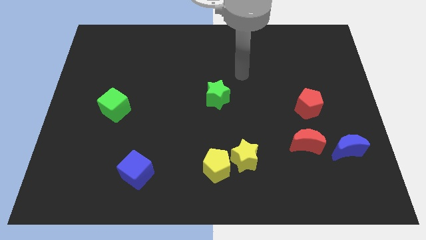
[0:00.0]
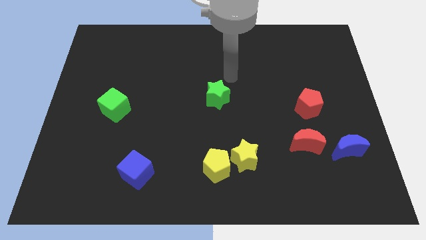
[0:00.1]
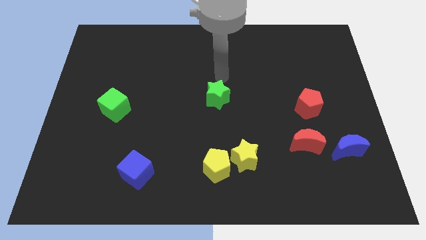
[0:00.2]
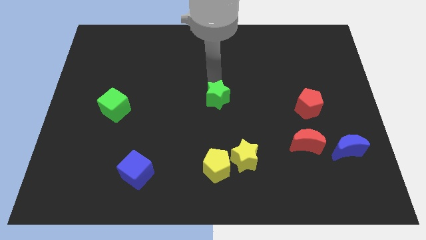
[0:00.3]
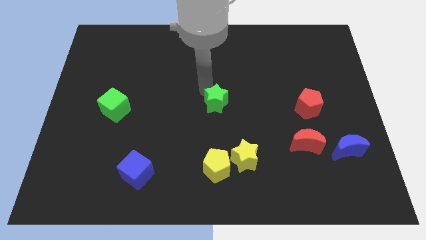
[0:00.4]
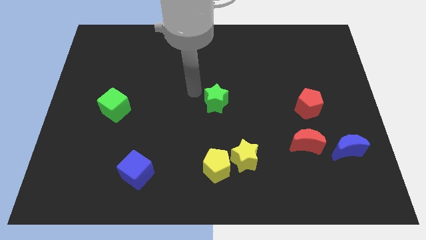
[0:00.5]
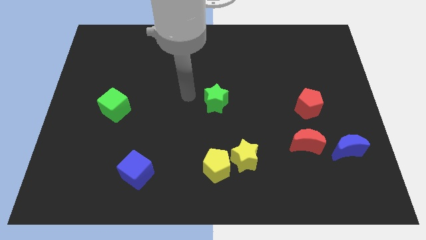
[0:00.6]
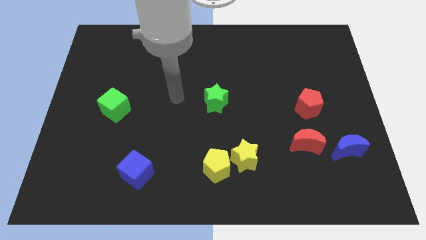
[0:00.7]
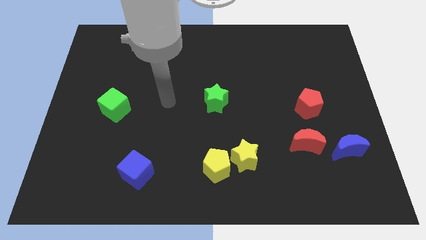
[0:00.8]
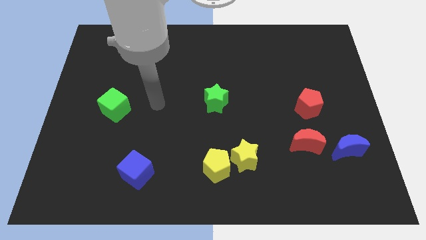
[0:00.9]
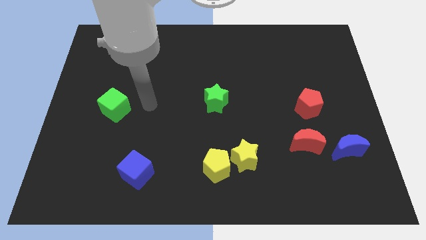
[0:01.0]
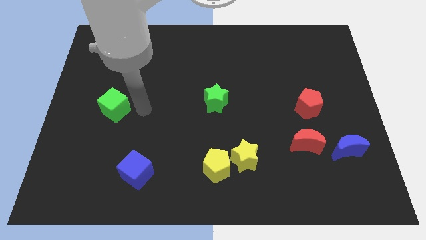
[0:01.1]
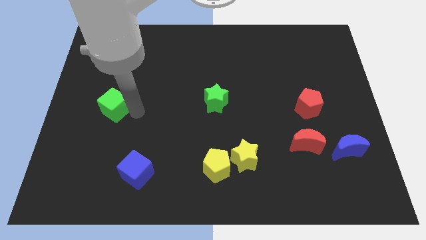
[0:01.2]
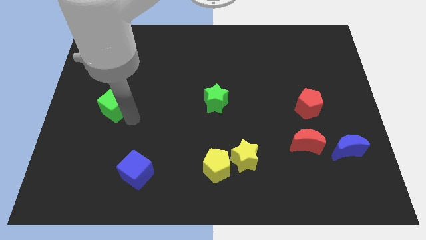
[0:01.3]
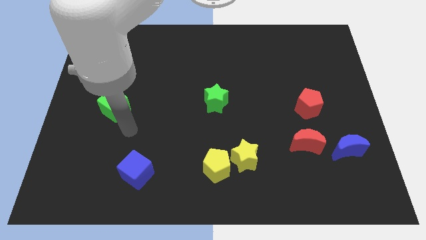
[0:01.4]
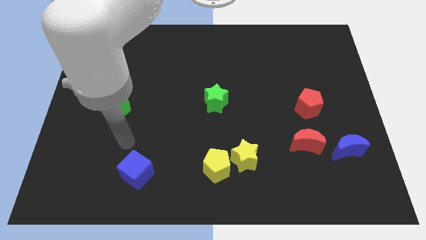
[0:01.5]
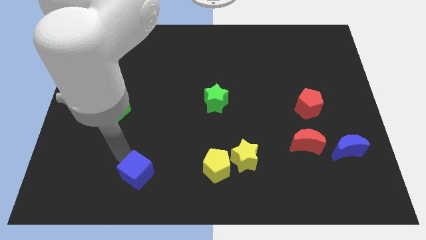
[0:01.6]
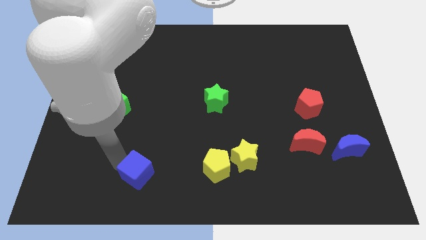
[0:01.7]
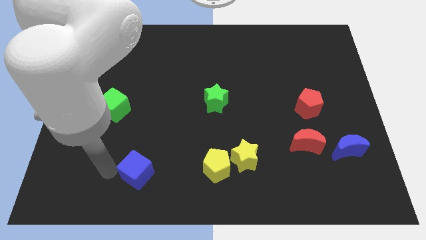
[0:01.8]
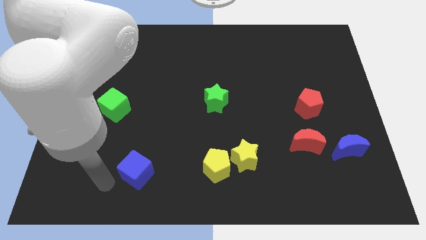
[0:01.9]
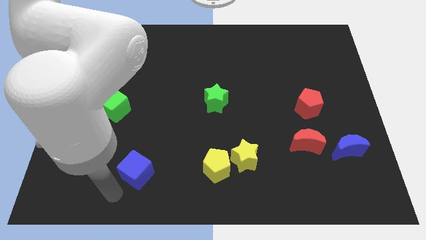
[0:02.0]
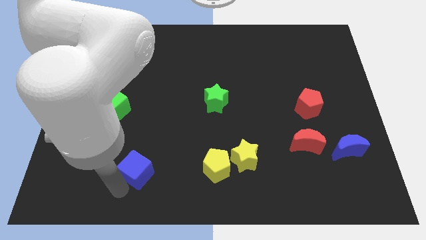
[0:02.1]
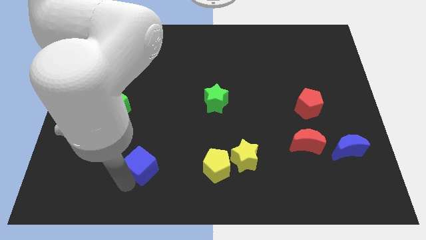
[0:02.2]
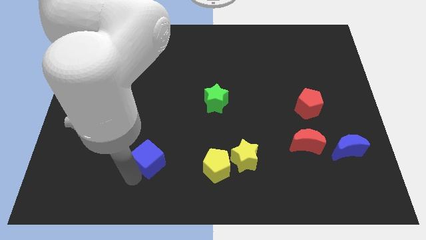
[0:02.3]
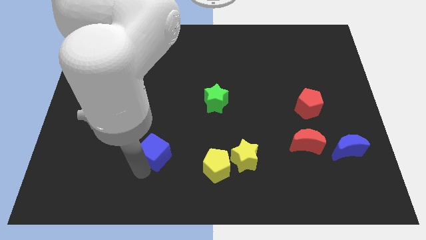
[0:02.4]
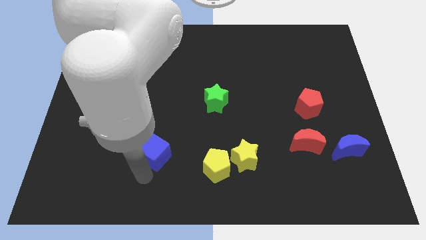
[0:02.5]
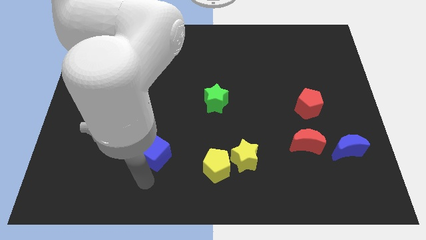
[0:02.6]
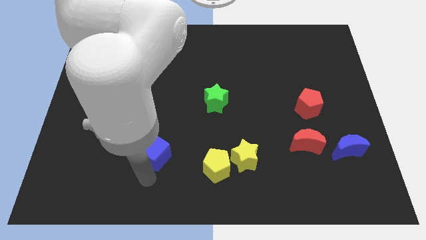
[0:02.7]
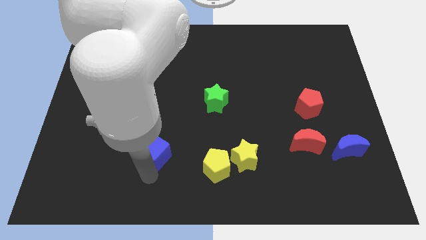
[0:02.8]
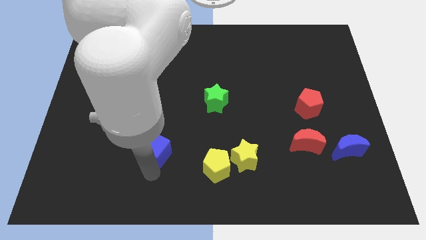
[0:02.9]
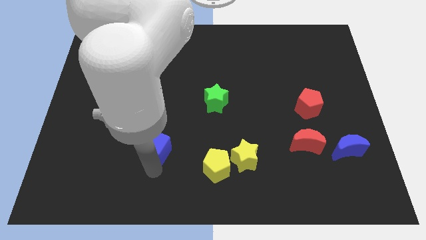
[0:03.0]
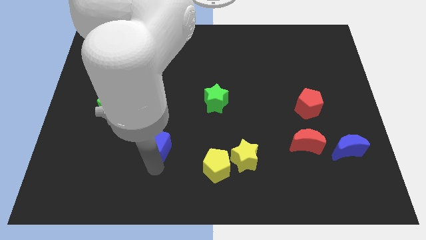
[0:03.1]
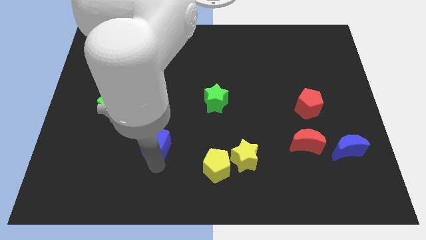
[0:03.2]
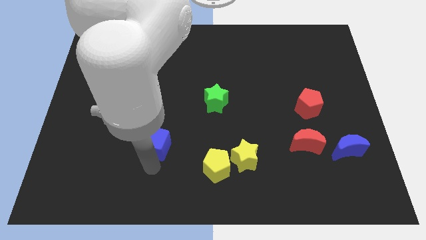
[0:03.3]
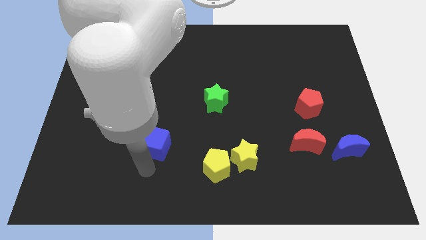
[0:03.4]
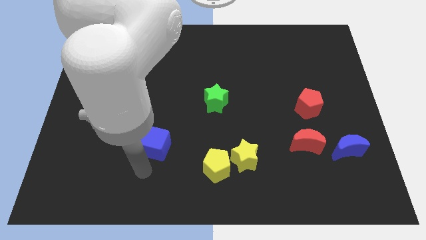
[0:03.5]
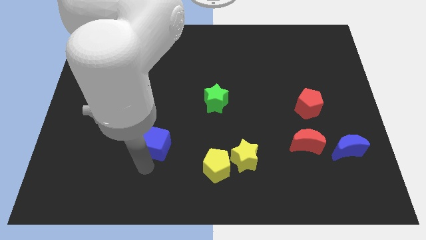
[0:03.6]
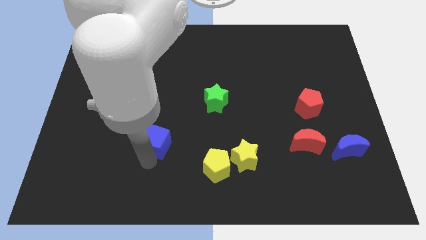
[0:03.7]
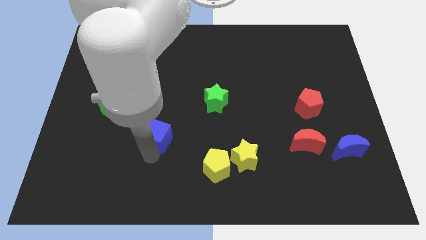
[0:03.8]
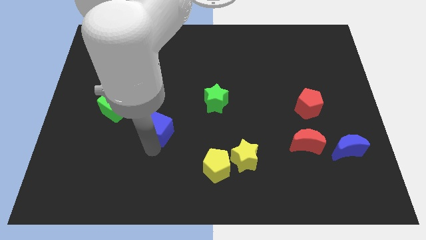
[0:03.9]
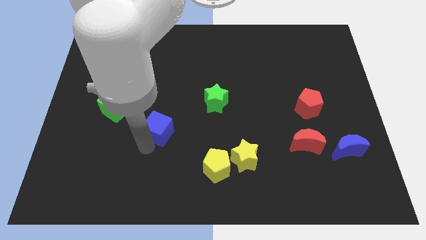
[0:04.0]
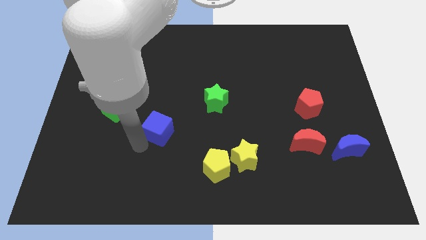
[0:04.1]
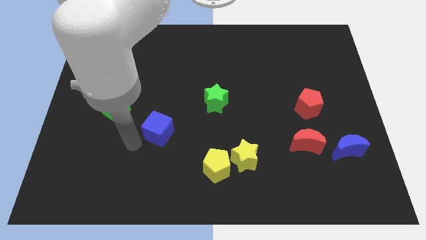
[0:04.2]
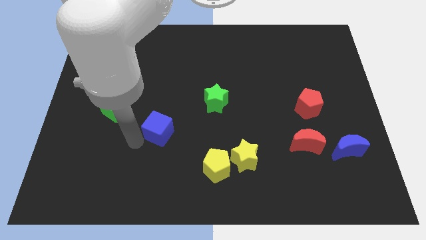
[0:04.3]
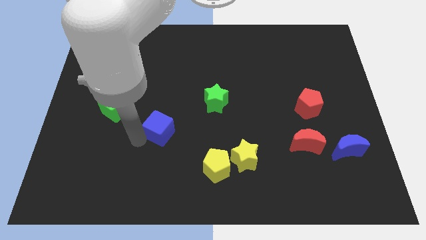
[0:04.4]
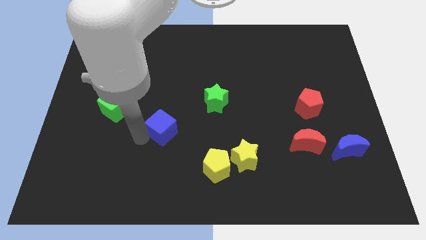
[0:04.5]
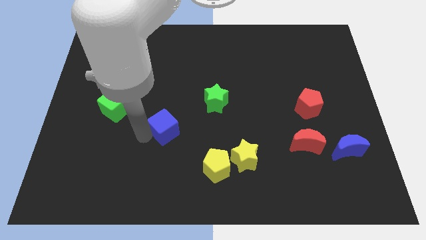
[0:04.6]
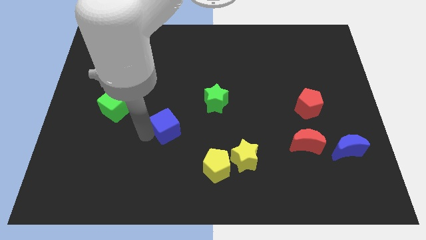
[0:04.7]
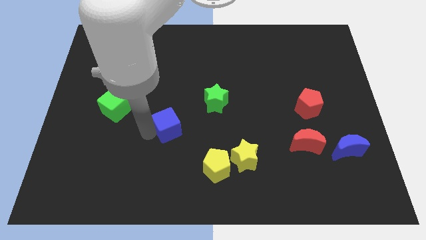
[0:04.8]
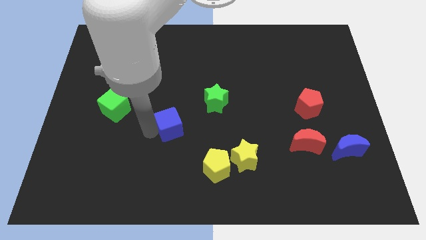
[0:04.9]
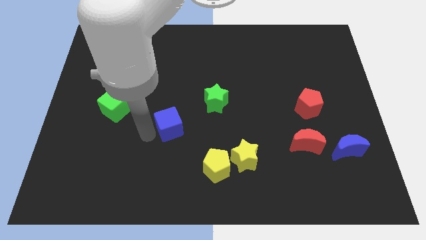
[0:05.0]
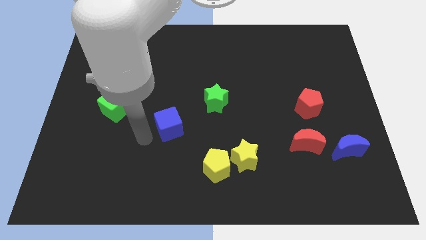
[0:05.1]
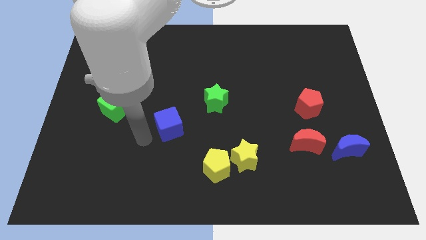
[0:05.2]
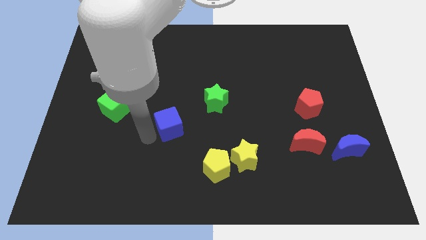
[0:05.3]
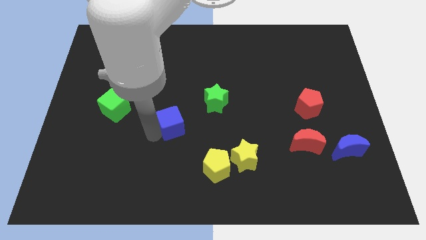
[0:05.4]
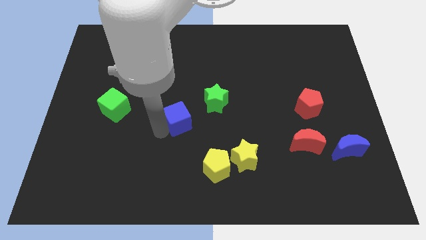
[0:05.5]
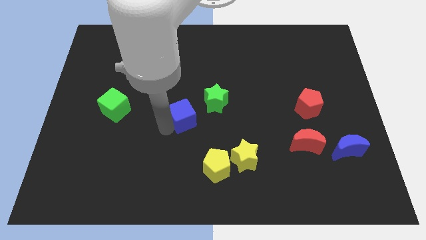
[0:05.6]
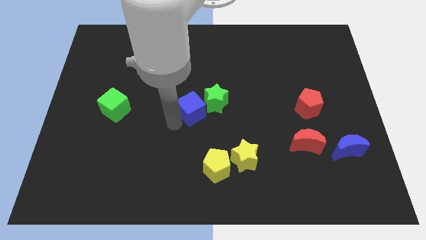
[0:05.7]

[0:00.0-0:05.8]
slide the blue cube towards the green star

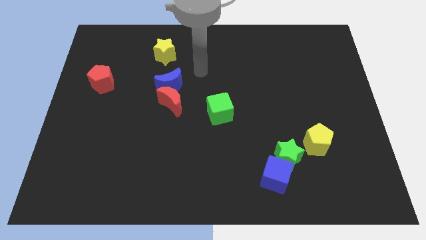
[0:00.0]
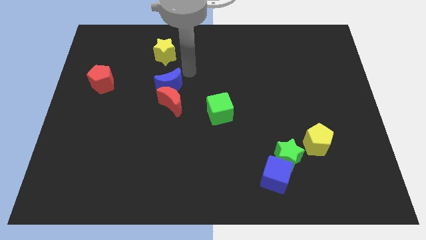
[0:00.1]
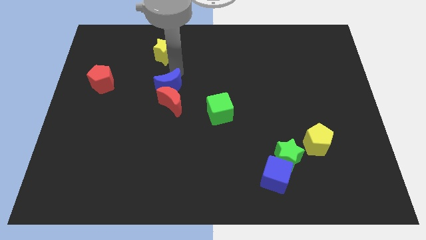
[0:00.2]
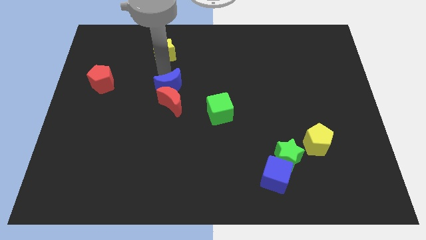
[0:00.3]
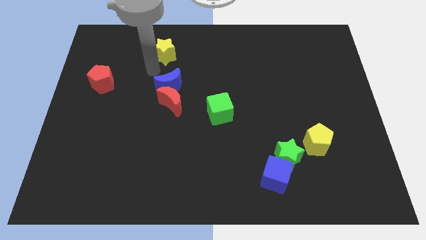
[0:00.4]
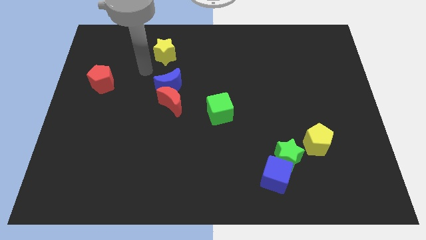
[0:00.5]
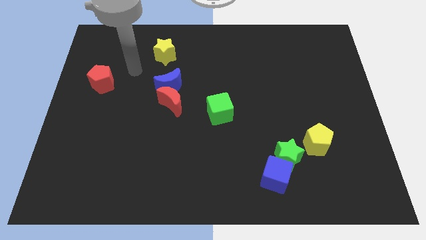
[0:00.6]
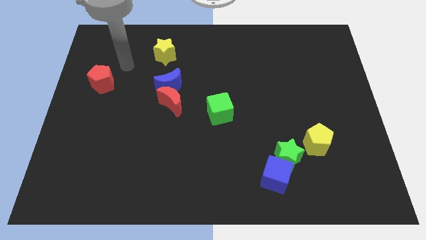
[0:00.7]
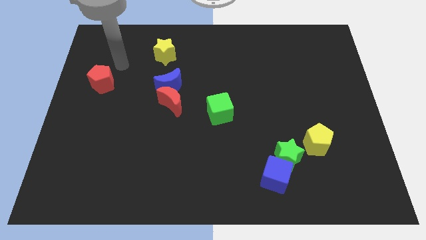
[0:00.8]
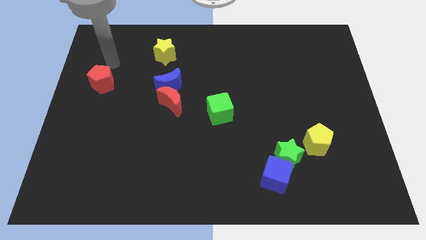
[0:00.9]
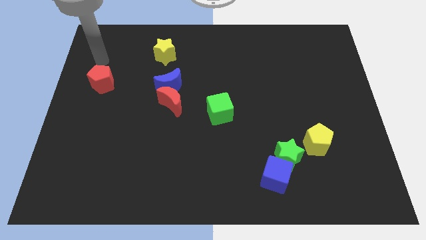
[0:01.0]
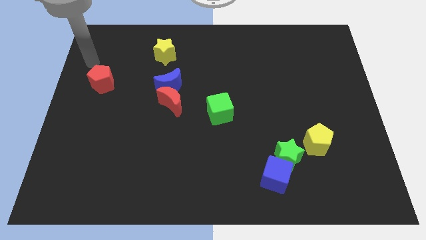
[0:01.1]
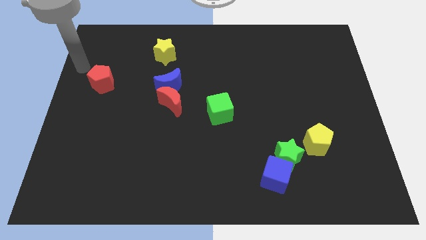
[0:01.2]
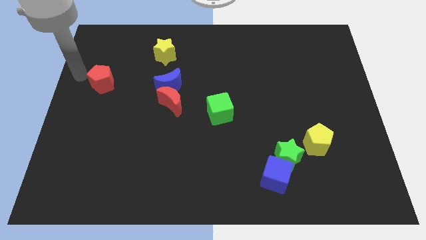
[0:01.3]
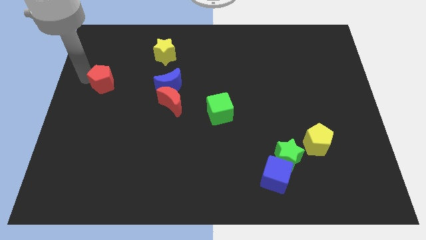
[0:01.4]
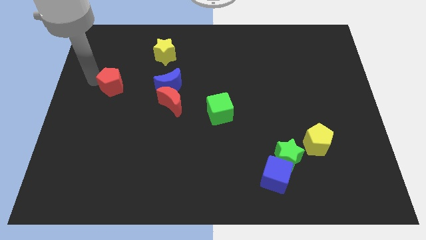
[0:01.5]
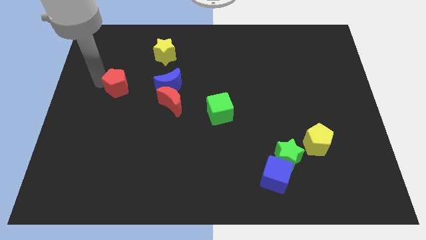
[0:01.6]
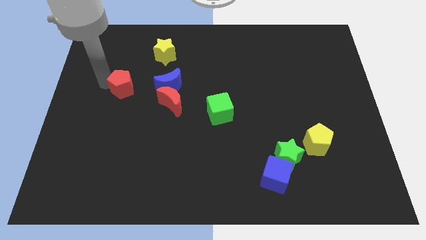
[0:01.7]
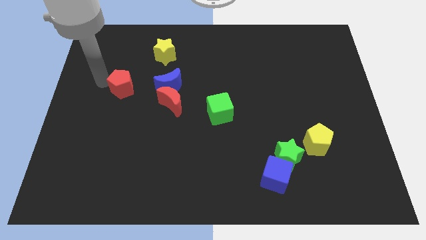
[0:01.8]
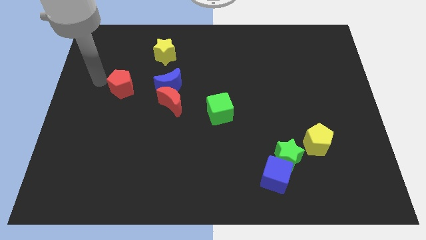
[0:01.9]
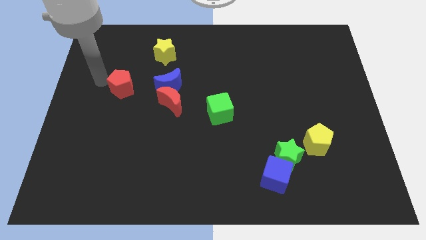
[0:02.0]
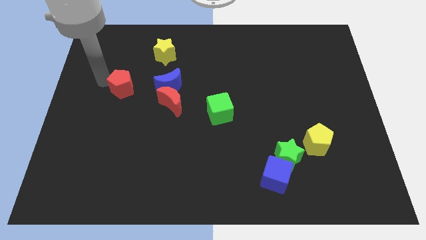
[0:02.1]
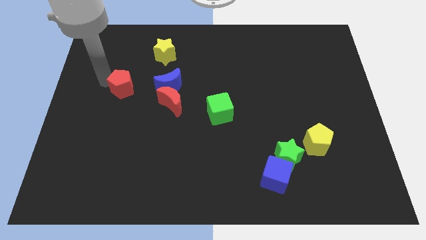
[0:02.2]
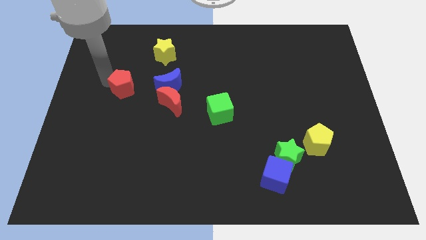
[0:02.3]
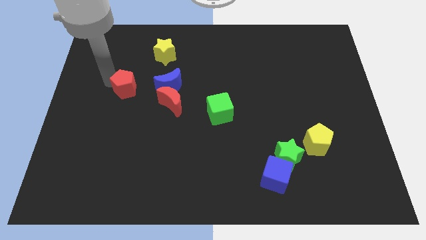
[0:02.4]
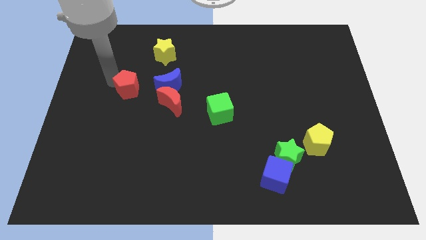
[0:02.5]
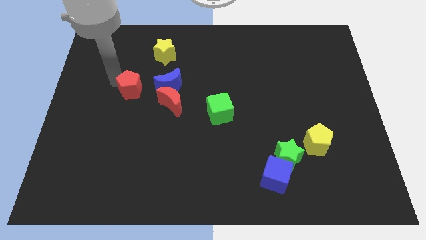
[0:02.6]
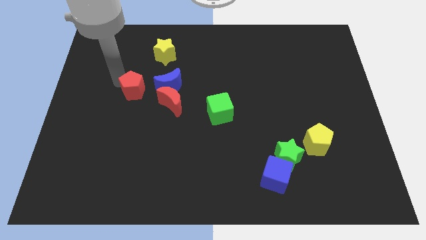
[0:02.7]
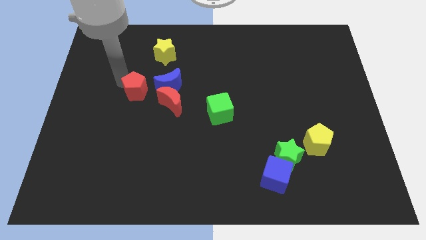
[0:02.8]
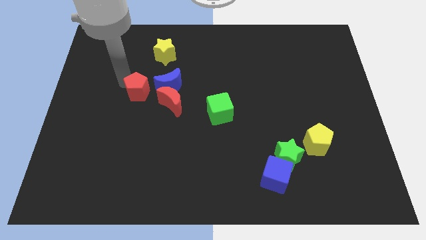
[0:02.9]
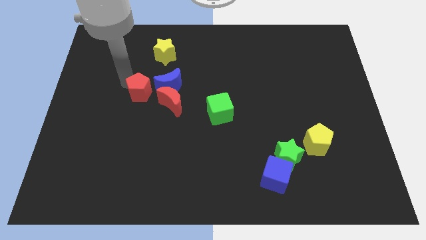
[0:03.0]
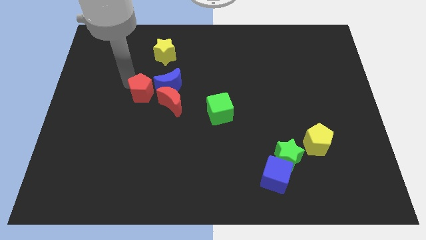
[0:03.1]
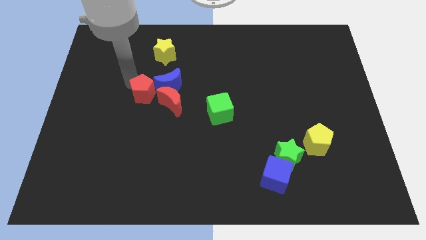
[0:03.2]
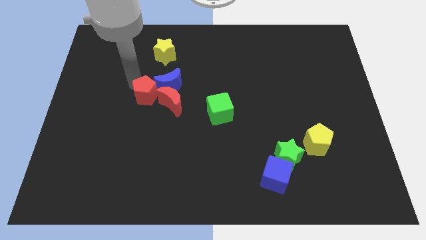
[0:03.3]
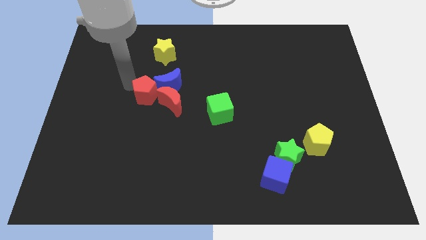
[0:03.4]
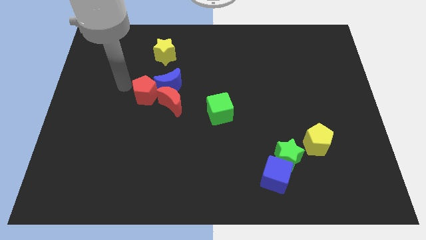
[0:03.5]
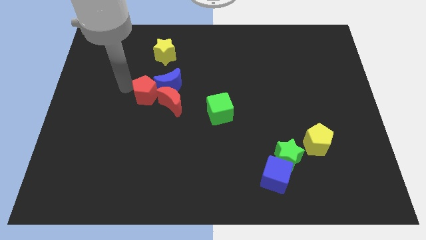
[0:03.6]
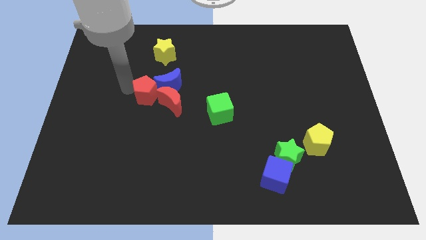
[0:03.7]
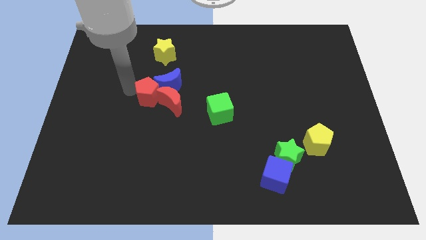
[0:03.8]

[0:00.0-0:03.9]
move the red pentagon towards the red moon
